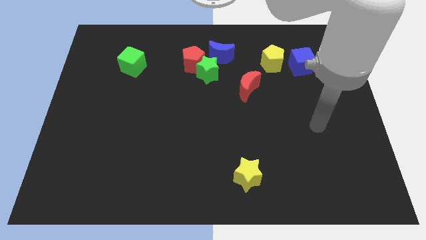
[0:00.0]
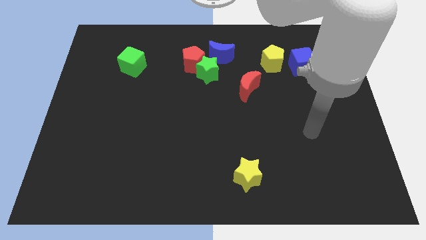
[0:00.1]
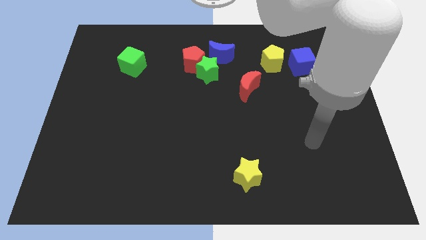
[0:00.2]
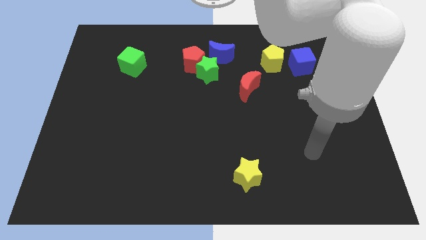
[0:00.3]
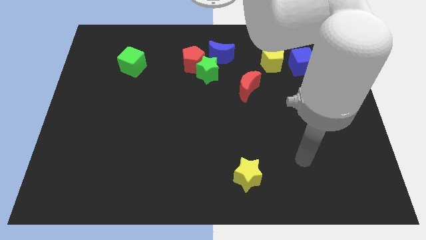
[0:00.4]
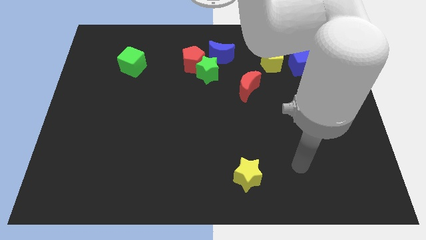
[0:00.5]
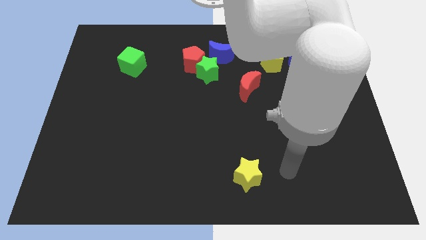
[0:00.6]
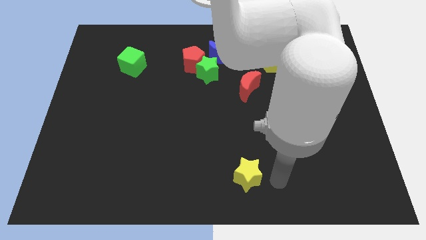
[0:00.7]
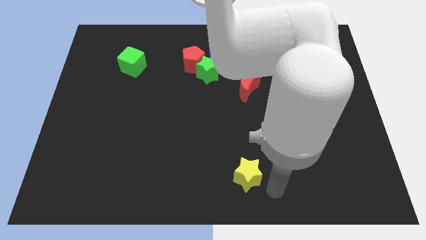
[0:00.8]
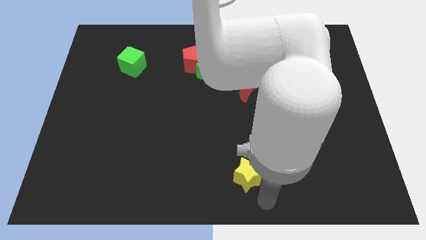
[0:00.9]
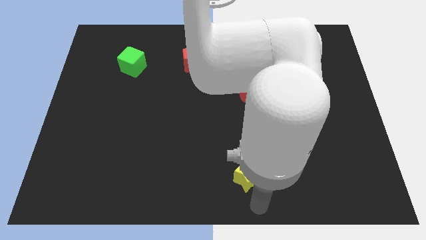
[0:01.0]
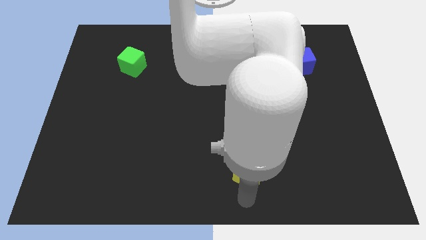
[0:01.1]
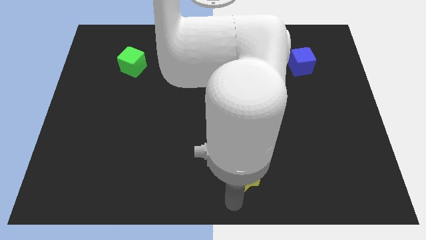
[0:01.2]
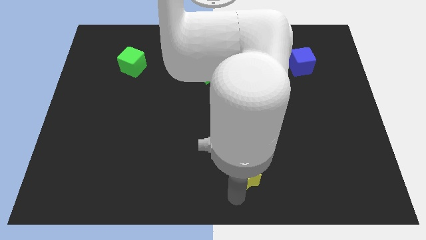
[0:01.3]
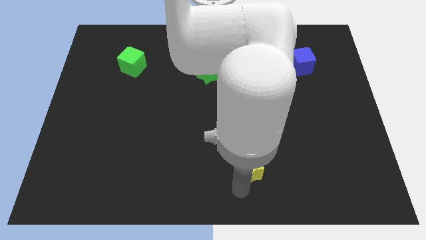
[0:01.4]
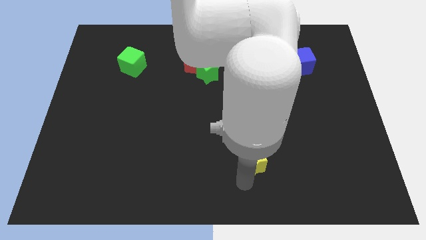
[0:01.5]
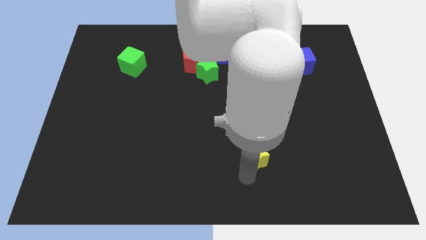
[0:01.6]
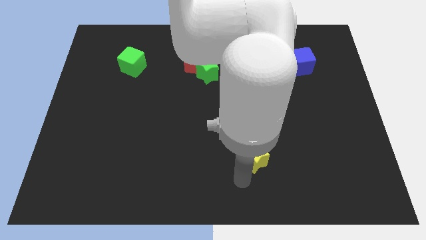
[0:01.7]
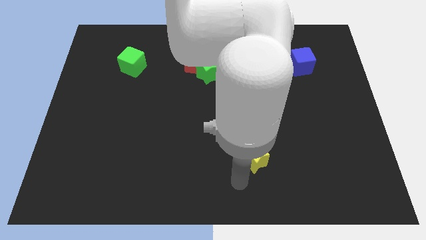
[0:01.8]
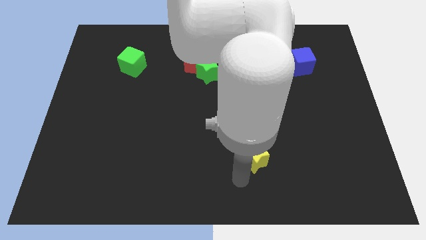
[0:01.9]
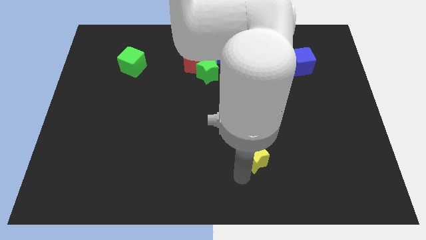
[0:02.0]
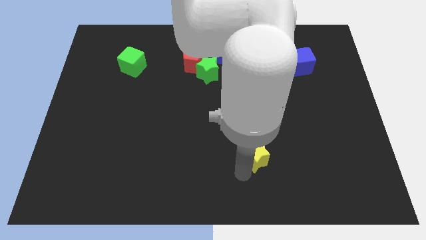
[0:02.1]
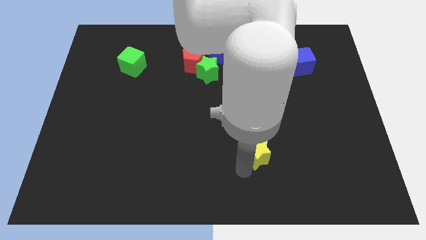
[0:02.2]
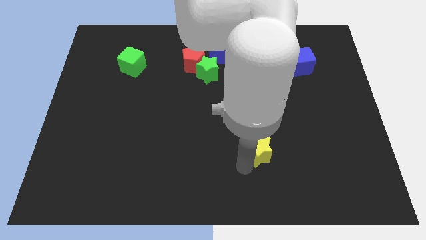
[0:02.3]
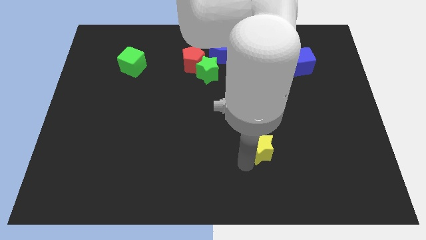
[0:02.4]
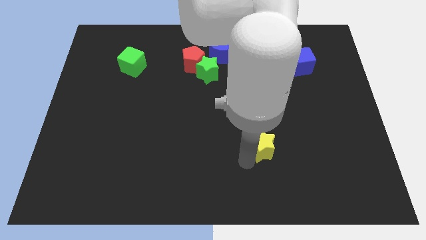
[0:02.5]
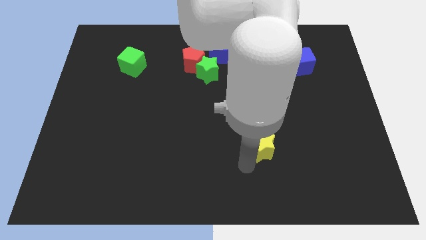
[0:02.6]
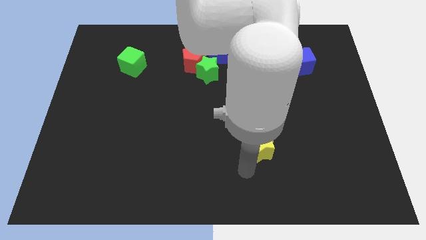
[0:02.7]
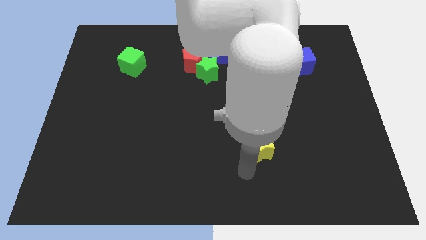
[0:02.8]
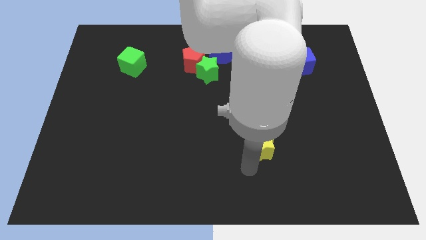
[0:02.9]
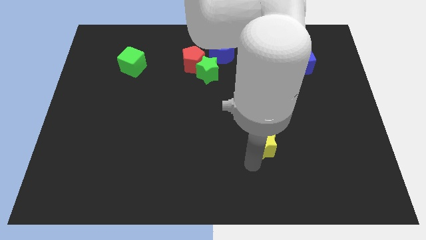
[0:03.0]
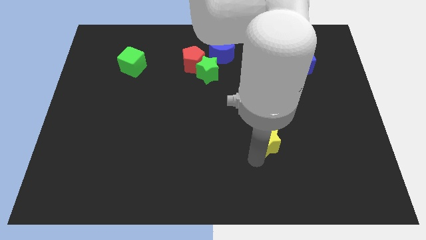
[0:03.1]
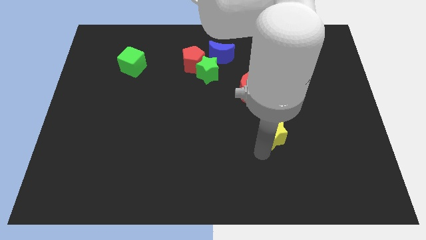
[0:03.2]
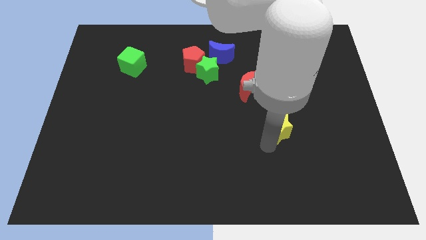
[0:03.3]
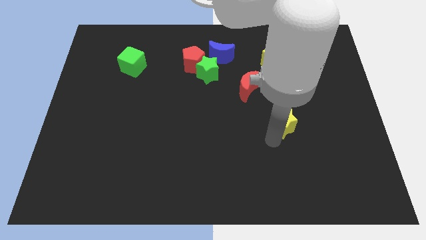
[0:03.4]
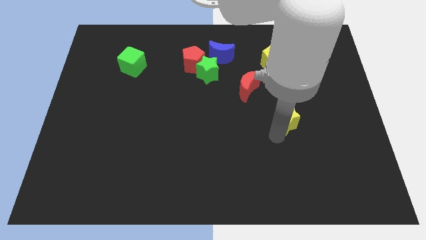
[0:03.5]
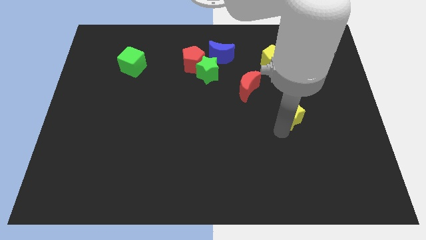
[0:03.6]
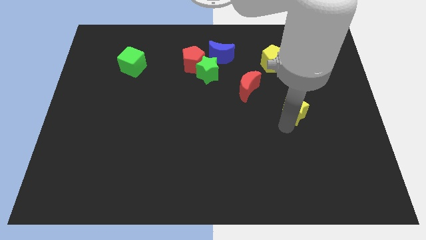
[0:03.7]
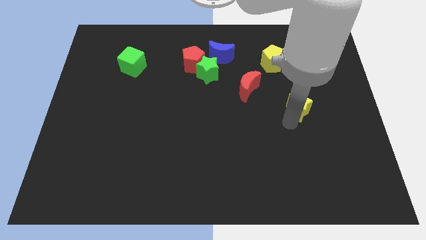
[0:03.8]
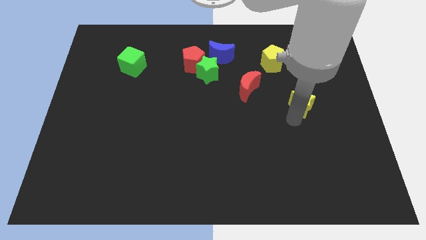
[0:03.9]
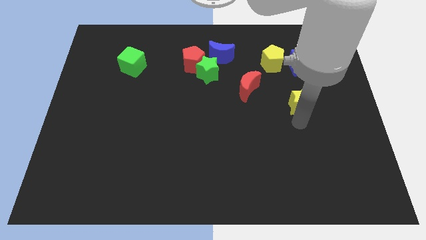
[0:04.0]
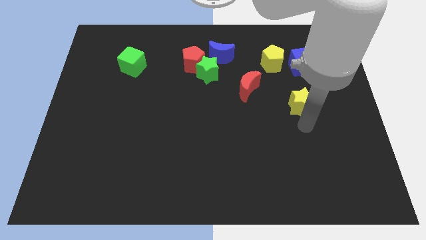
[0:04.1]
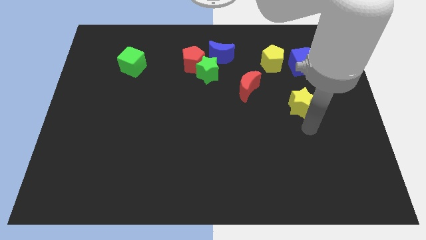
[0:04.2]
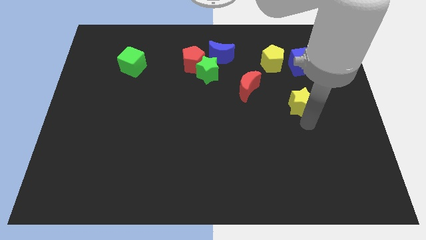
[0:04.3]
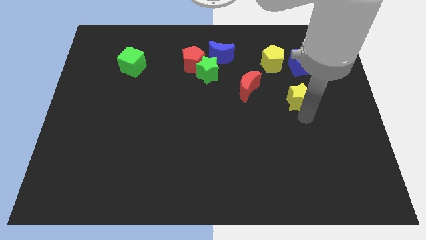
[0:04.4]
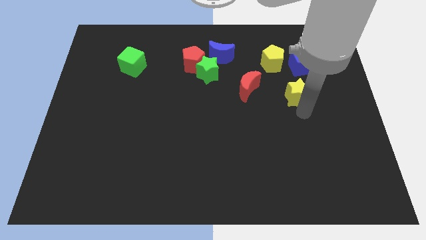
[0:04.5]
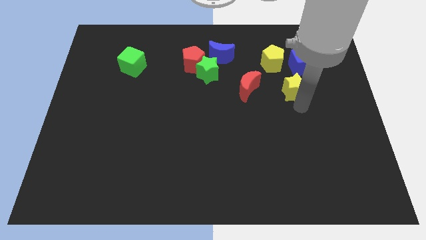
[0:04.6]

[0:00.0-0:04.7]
push the yellow star diagonally down and to the right of the yellow pentagon

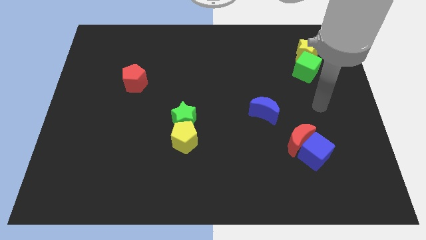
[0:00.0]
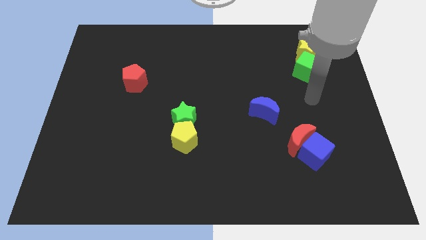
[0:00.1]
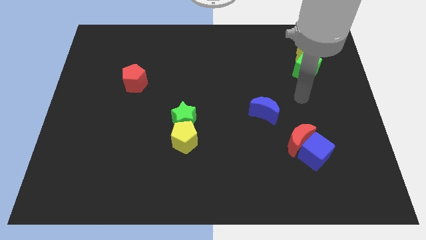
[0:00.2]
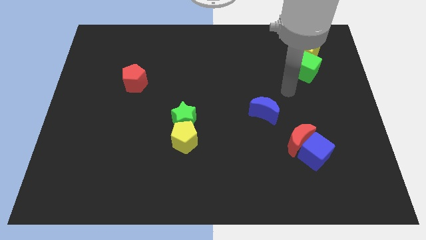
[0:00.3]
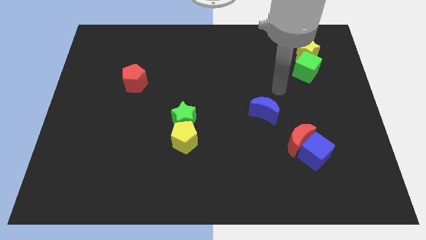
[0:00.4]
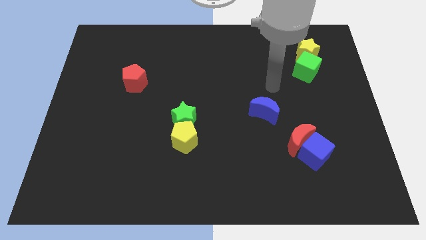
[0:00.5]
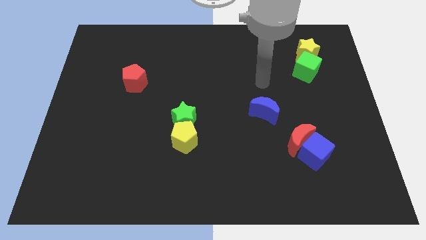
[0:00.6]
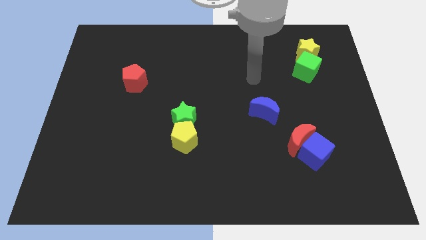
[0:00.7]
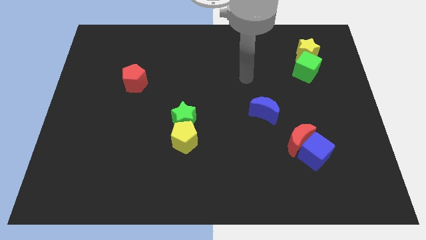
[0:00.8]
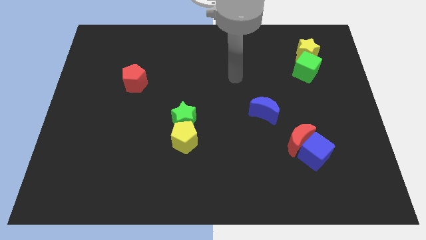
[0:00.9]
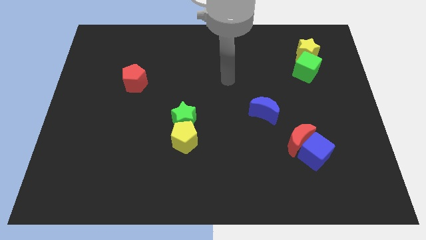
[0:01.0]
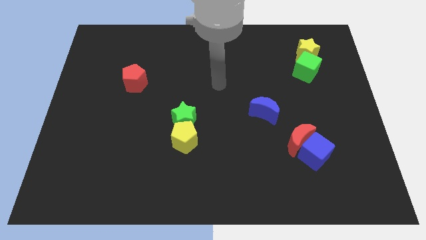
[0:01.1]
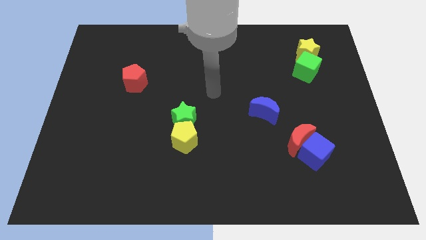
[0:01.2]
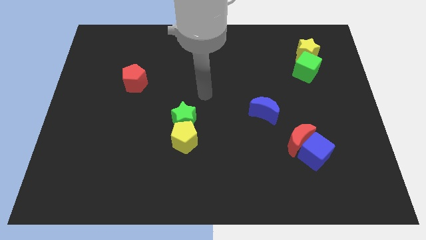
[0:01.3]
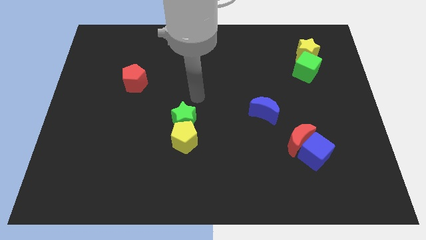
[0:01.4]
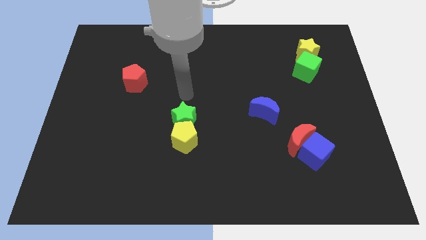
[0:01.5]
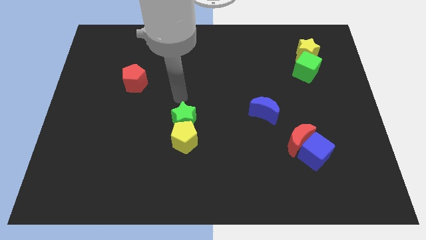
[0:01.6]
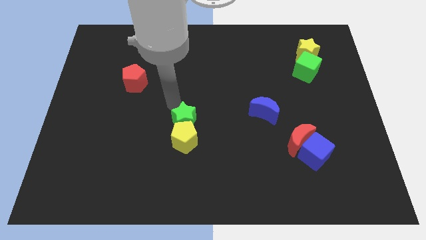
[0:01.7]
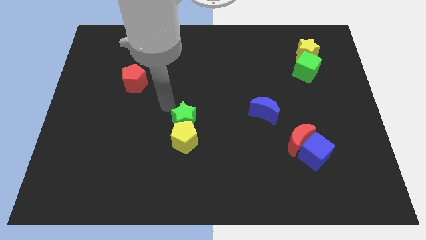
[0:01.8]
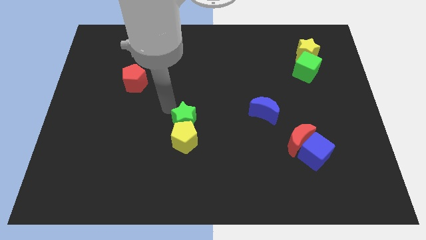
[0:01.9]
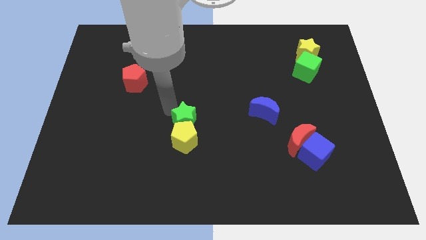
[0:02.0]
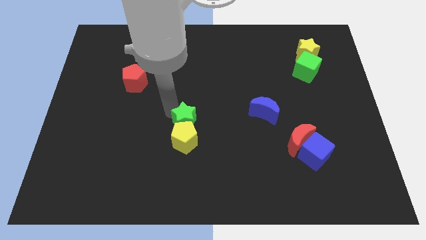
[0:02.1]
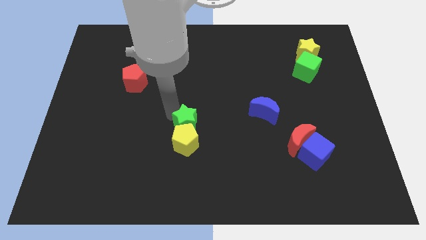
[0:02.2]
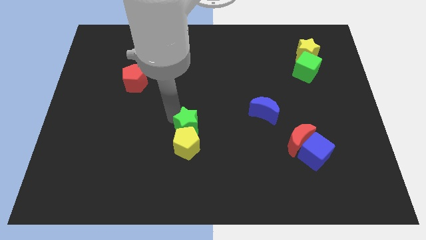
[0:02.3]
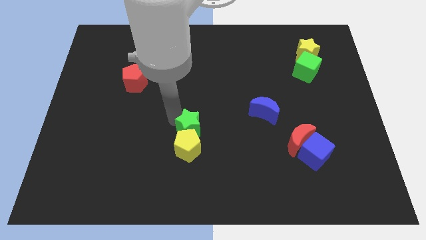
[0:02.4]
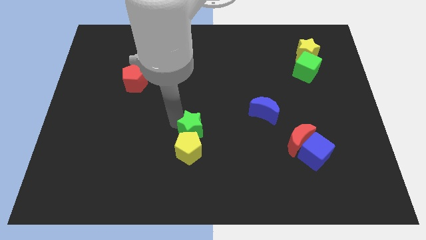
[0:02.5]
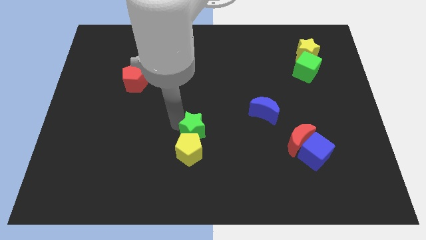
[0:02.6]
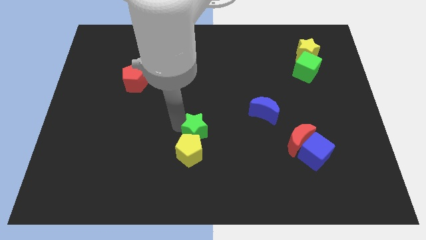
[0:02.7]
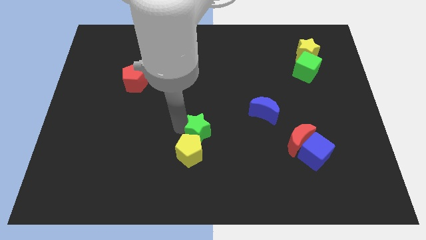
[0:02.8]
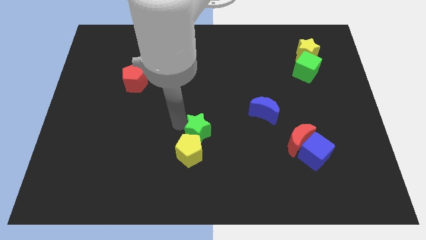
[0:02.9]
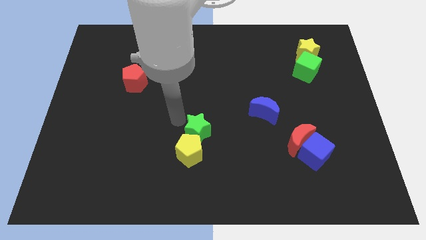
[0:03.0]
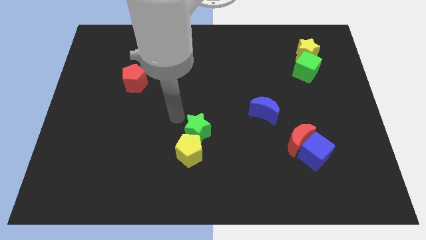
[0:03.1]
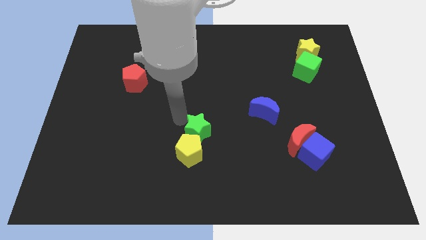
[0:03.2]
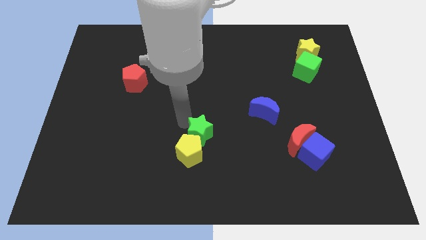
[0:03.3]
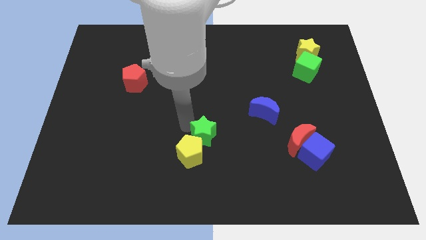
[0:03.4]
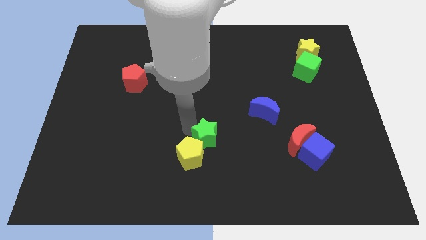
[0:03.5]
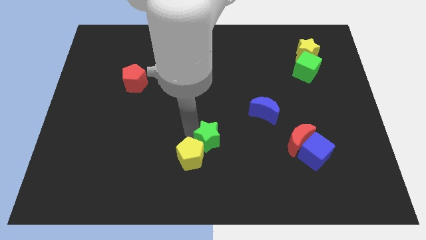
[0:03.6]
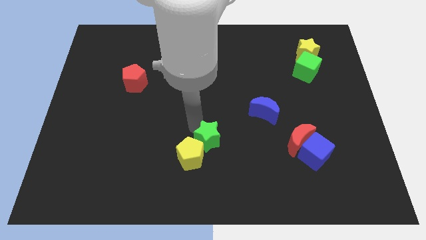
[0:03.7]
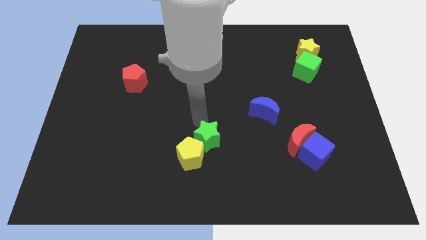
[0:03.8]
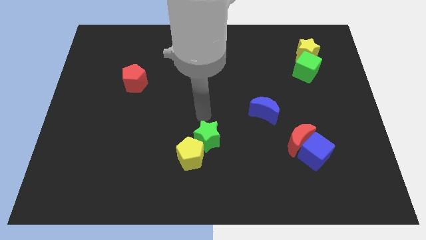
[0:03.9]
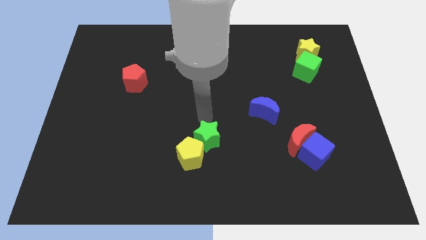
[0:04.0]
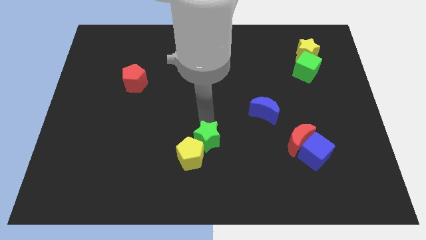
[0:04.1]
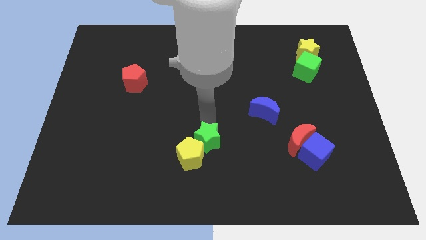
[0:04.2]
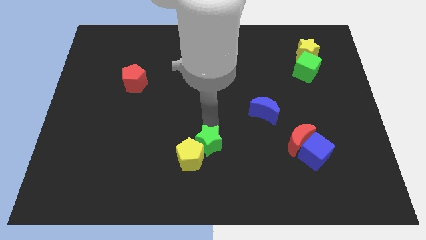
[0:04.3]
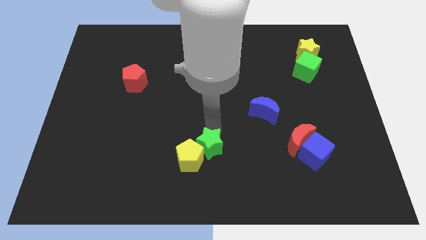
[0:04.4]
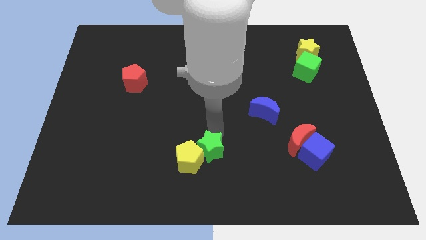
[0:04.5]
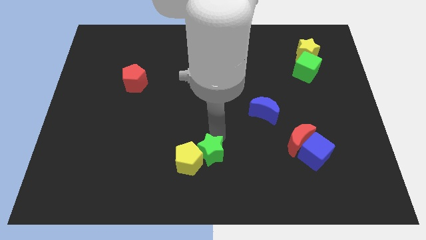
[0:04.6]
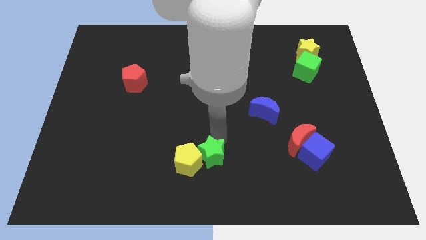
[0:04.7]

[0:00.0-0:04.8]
push the green star to the bottom right of the yellow pentagon
